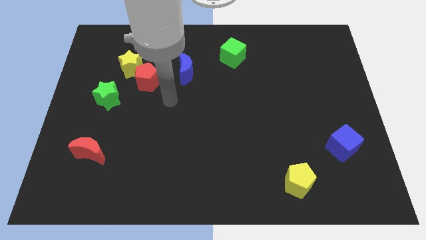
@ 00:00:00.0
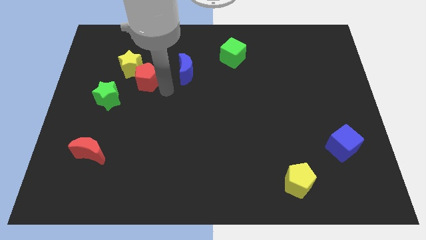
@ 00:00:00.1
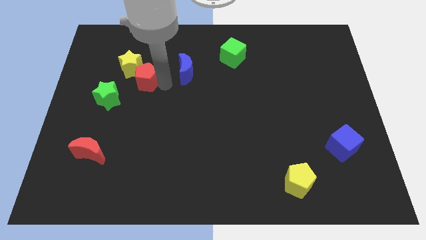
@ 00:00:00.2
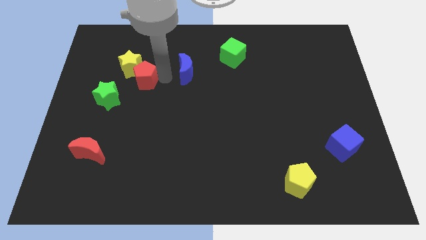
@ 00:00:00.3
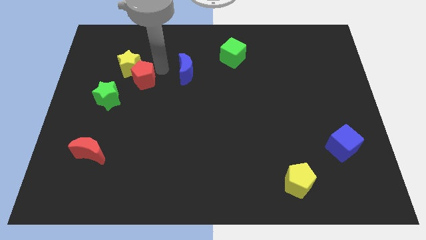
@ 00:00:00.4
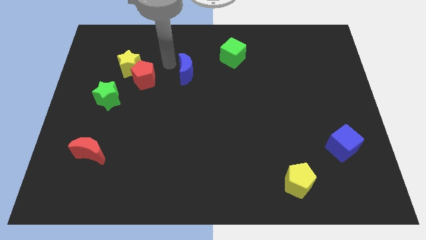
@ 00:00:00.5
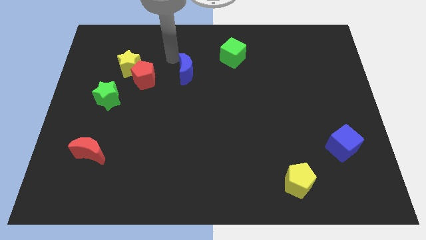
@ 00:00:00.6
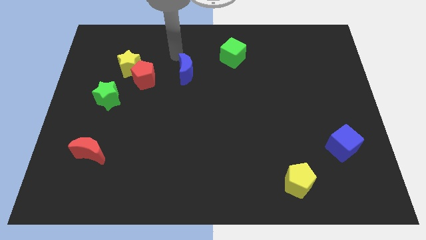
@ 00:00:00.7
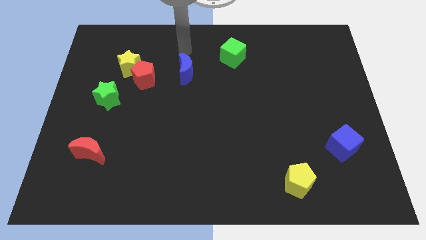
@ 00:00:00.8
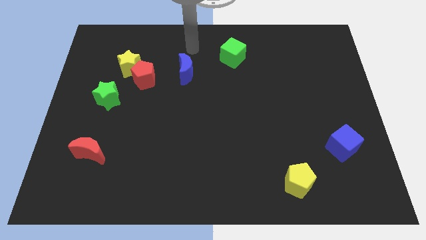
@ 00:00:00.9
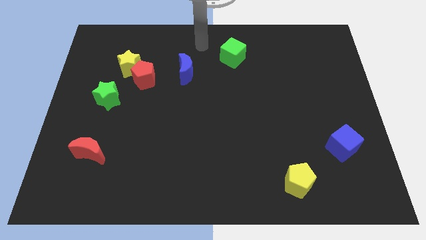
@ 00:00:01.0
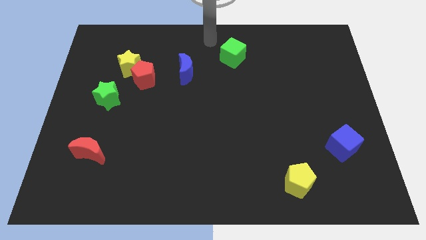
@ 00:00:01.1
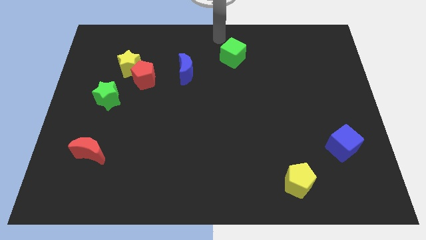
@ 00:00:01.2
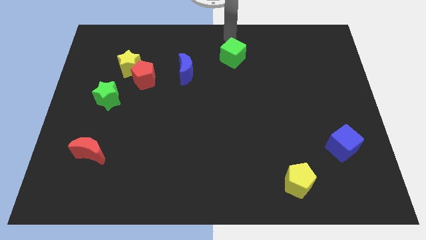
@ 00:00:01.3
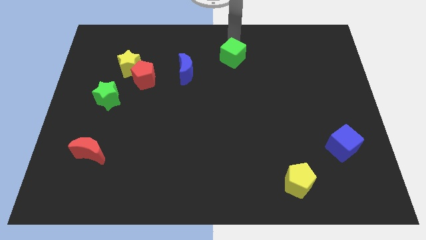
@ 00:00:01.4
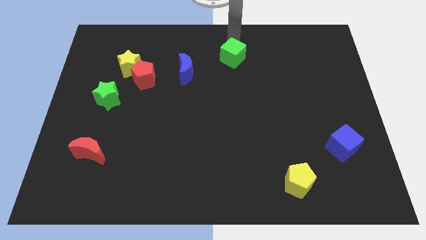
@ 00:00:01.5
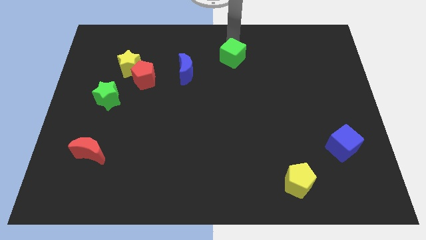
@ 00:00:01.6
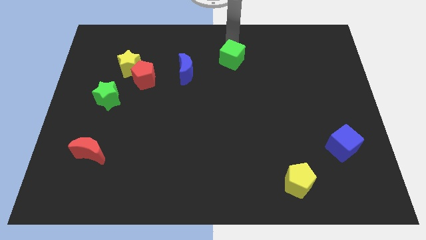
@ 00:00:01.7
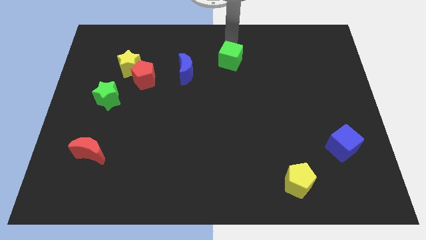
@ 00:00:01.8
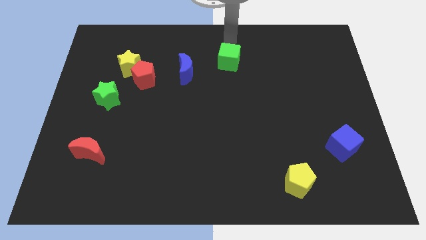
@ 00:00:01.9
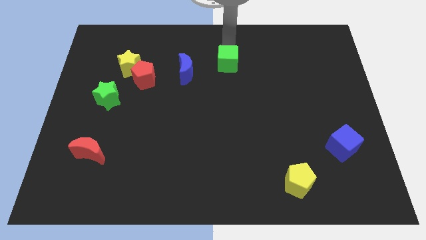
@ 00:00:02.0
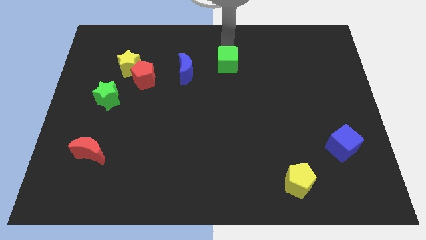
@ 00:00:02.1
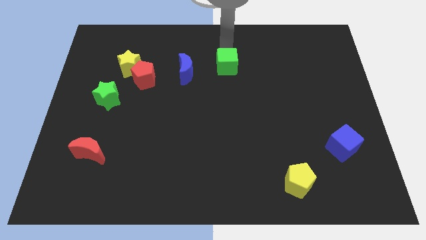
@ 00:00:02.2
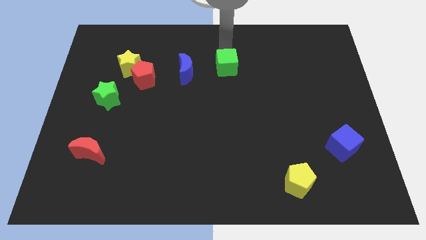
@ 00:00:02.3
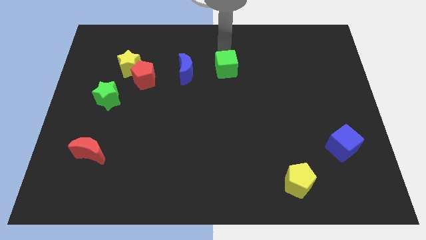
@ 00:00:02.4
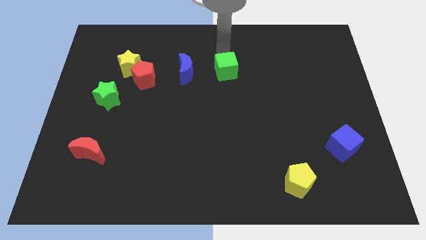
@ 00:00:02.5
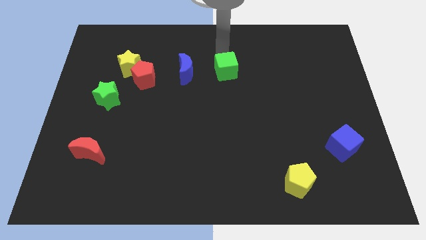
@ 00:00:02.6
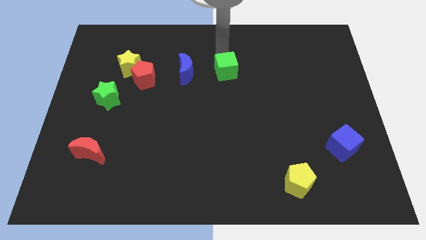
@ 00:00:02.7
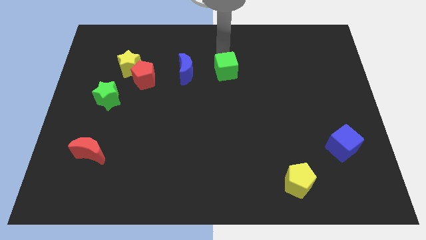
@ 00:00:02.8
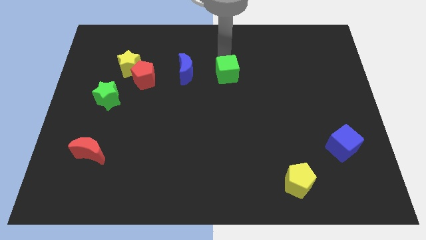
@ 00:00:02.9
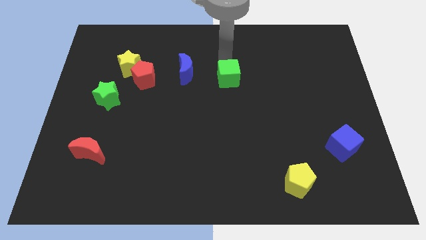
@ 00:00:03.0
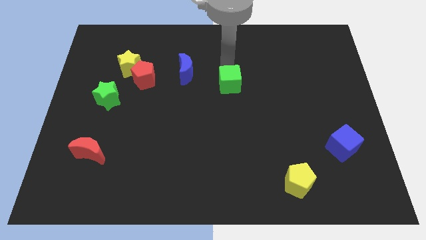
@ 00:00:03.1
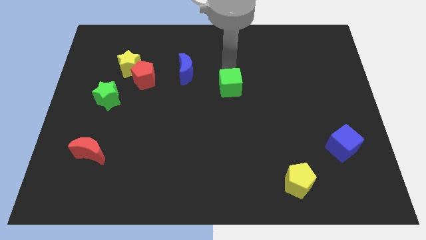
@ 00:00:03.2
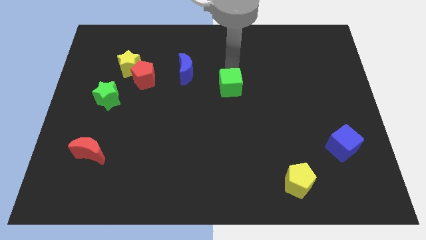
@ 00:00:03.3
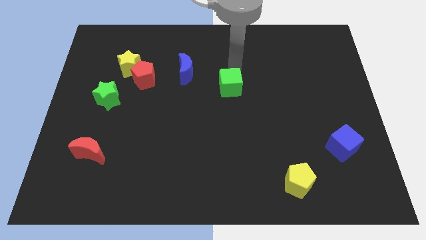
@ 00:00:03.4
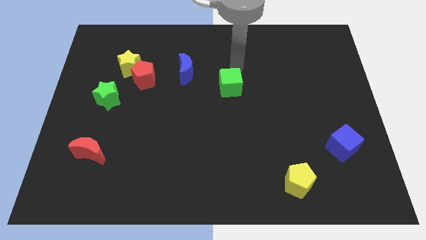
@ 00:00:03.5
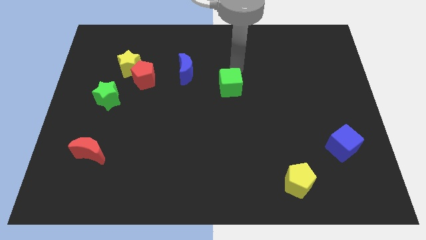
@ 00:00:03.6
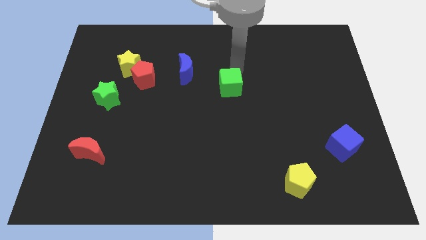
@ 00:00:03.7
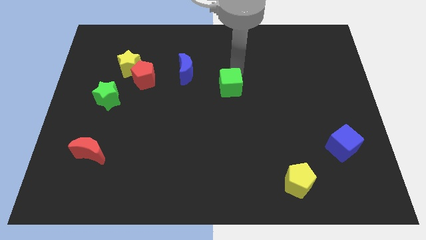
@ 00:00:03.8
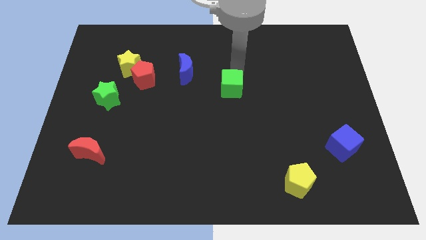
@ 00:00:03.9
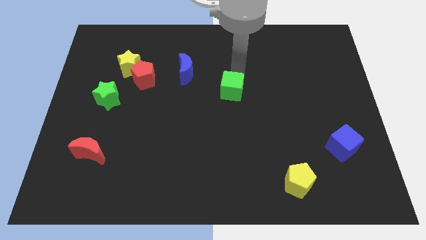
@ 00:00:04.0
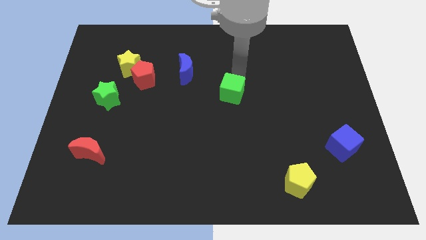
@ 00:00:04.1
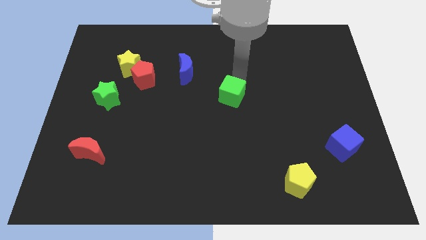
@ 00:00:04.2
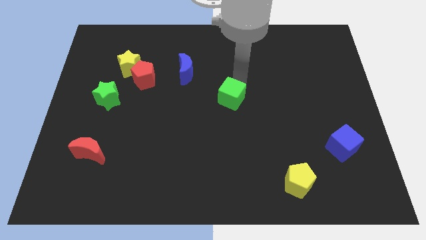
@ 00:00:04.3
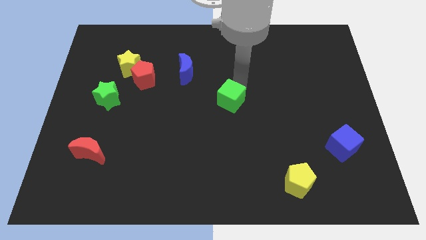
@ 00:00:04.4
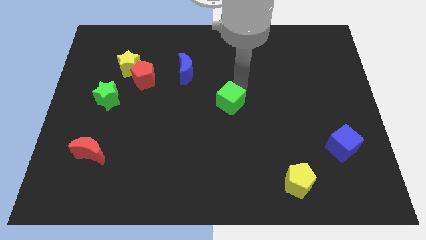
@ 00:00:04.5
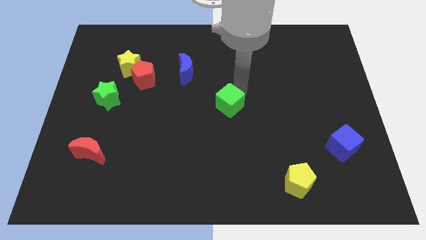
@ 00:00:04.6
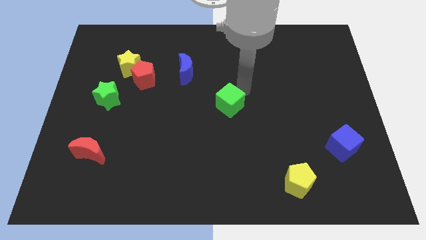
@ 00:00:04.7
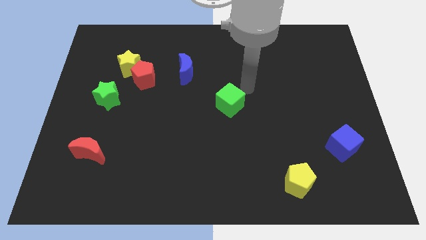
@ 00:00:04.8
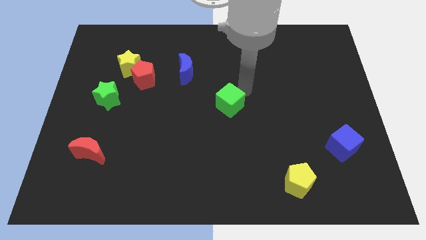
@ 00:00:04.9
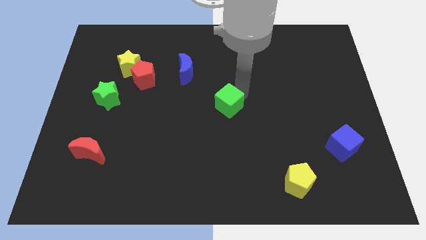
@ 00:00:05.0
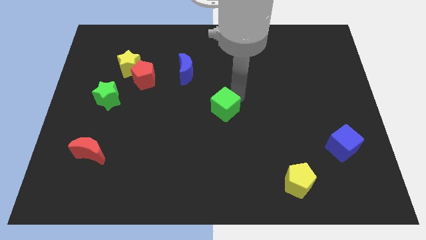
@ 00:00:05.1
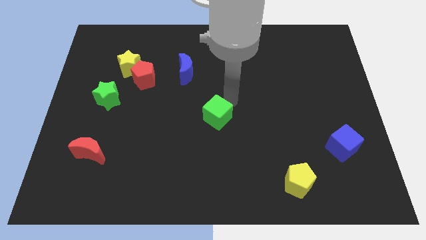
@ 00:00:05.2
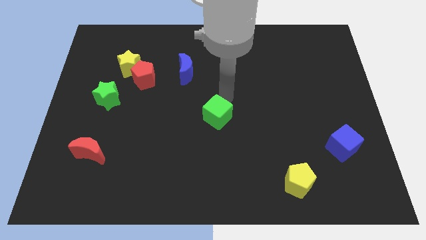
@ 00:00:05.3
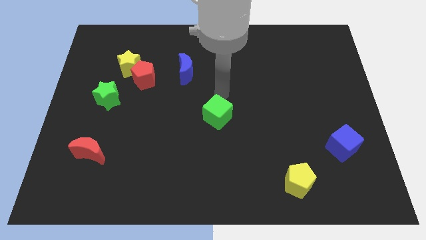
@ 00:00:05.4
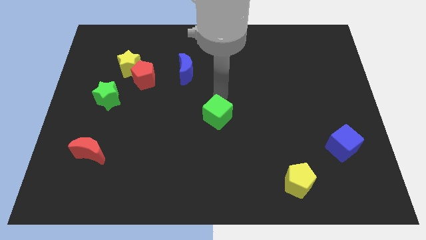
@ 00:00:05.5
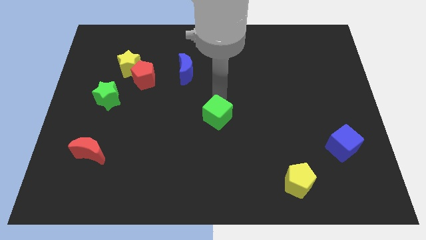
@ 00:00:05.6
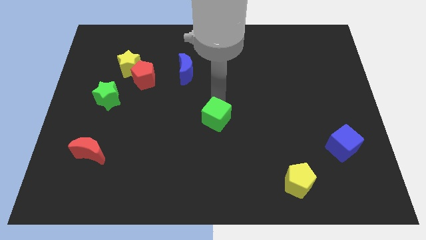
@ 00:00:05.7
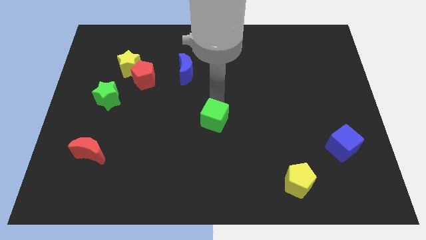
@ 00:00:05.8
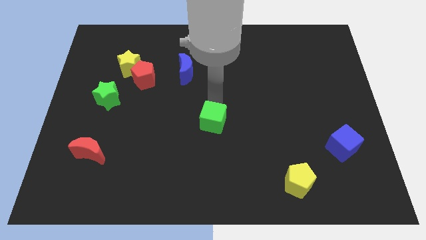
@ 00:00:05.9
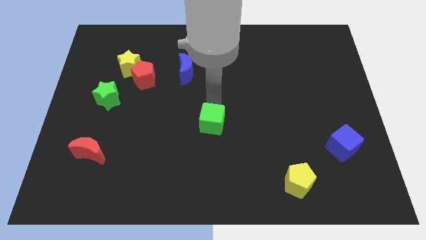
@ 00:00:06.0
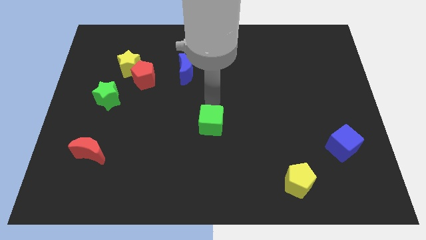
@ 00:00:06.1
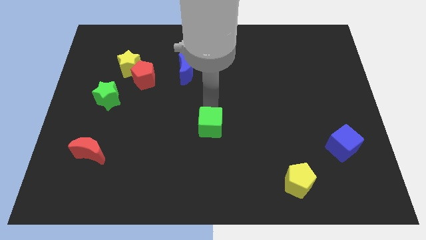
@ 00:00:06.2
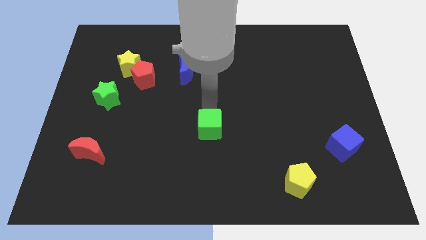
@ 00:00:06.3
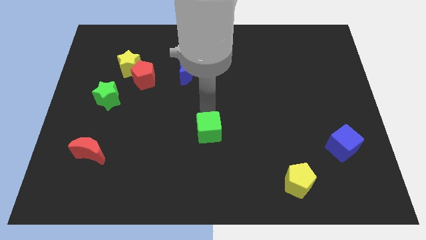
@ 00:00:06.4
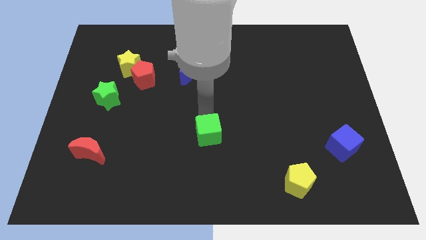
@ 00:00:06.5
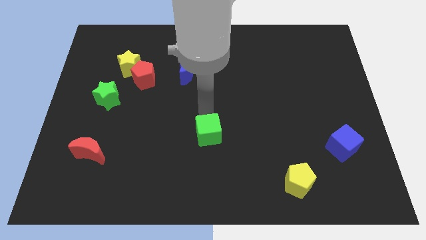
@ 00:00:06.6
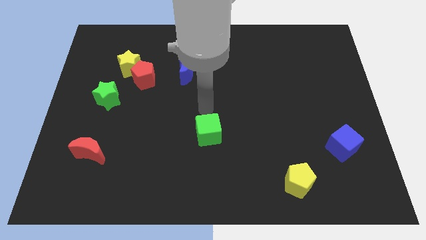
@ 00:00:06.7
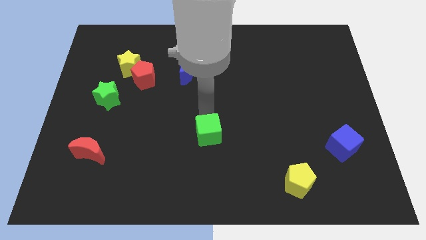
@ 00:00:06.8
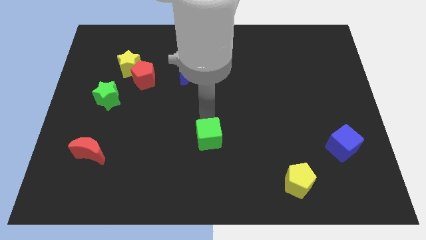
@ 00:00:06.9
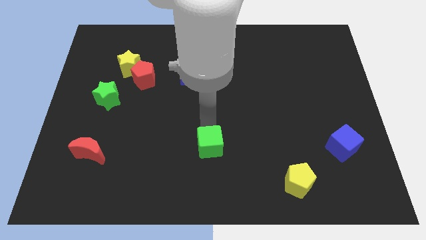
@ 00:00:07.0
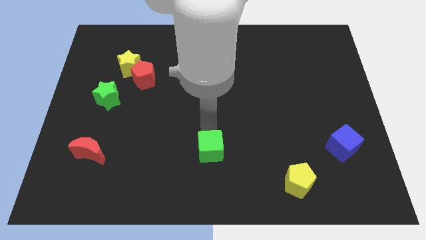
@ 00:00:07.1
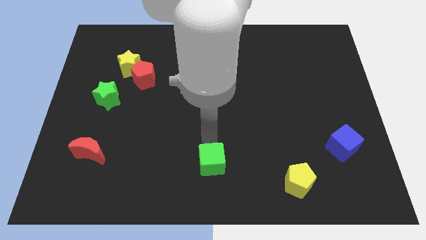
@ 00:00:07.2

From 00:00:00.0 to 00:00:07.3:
slide the green cube to the bottom
